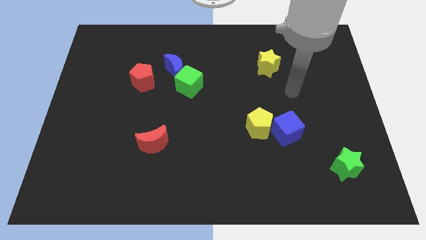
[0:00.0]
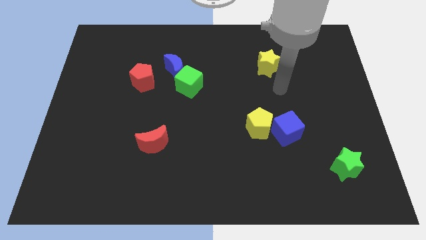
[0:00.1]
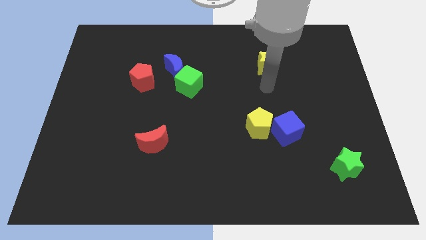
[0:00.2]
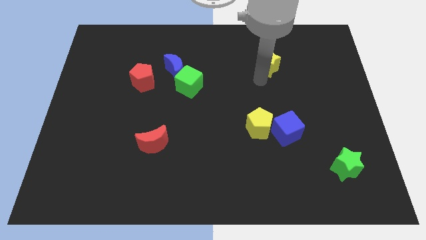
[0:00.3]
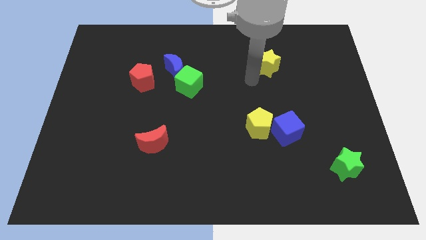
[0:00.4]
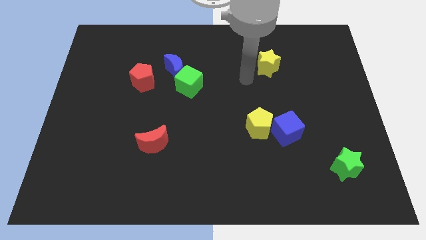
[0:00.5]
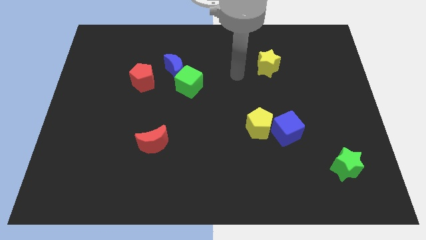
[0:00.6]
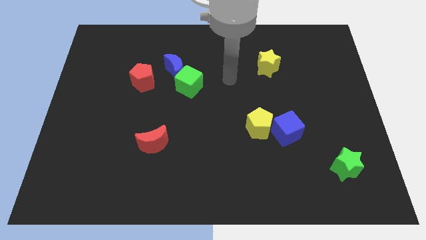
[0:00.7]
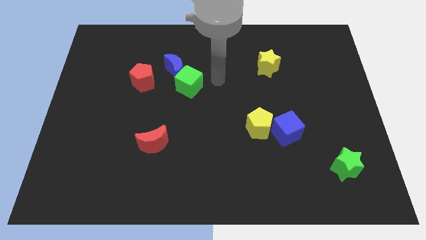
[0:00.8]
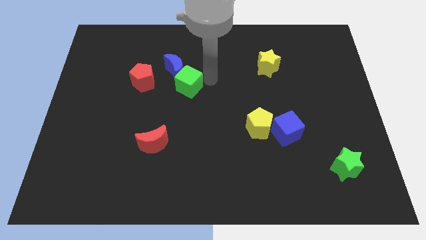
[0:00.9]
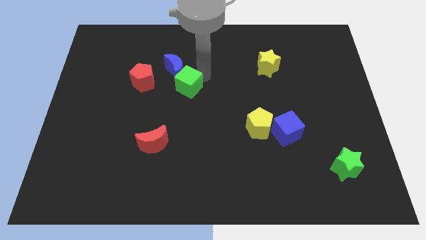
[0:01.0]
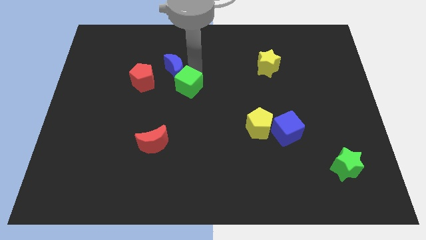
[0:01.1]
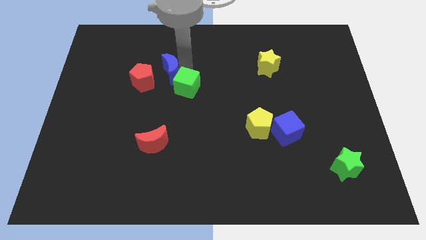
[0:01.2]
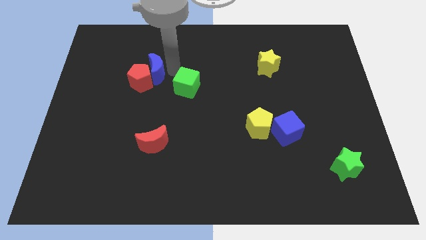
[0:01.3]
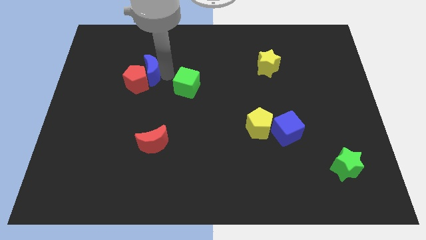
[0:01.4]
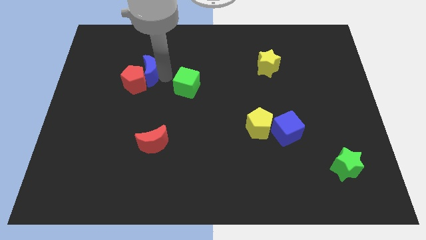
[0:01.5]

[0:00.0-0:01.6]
pull the green cube apart from the blue moon

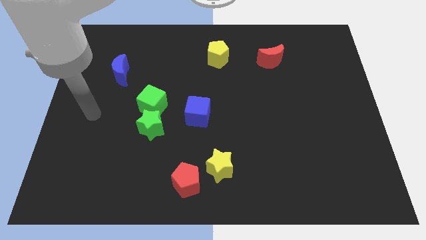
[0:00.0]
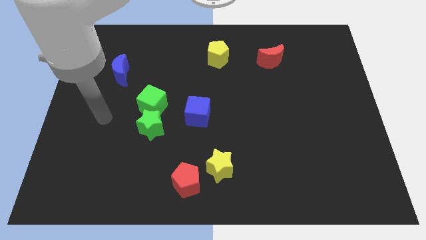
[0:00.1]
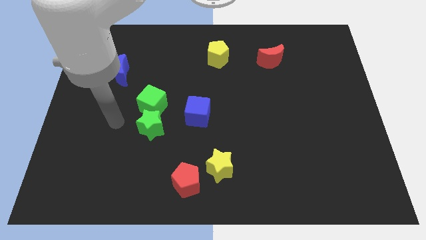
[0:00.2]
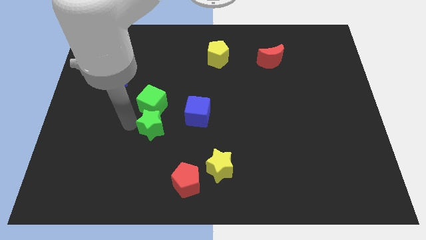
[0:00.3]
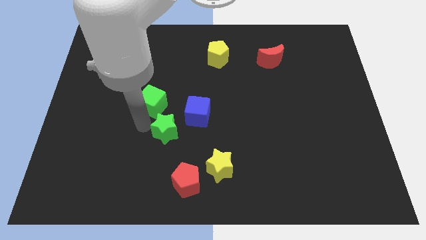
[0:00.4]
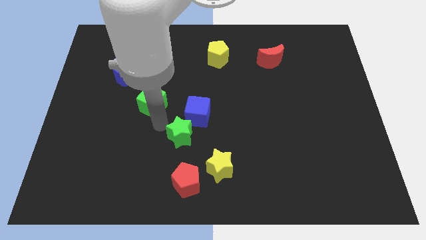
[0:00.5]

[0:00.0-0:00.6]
pull the green cube apart from the green star

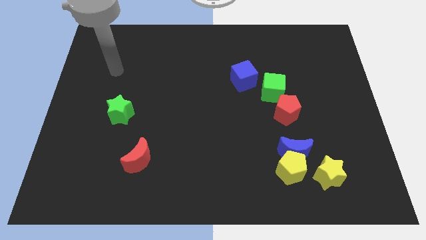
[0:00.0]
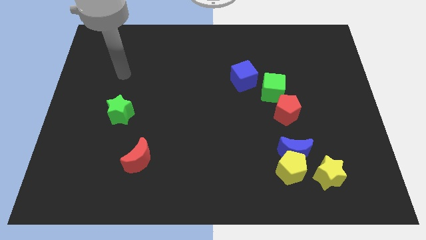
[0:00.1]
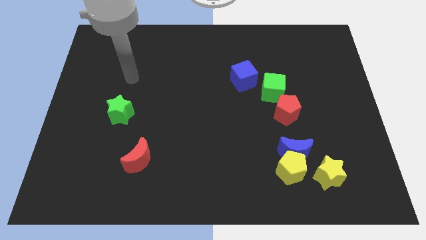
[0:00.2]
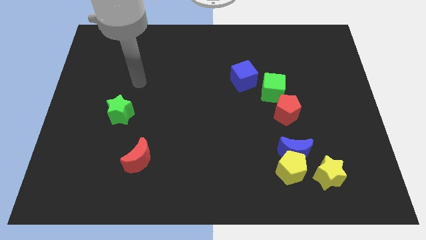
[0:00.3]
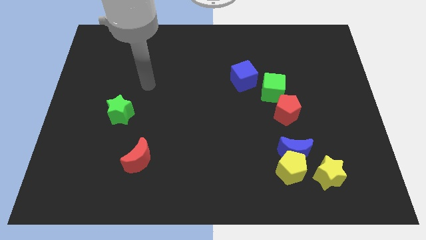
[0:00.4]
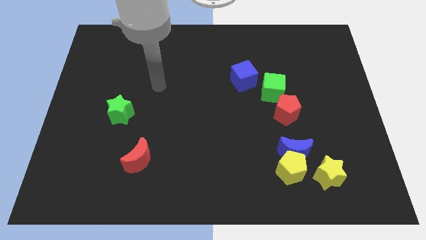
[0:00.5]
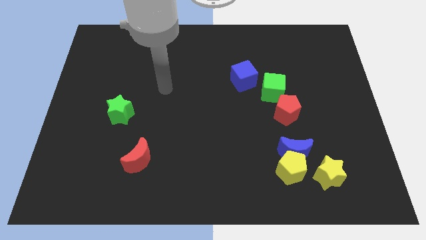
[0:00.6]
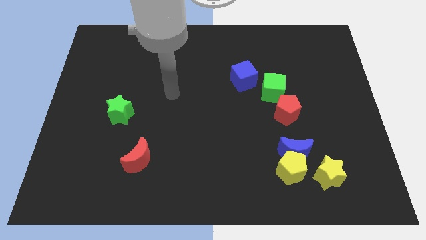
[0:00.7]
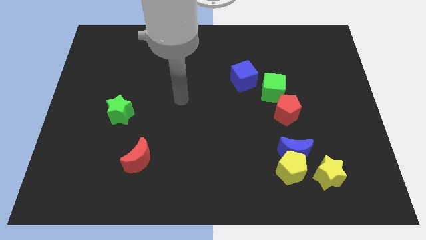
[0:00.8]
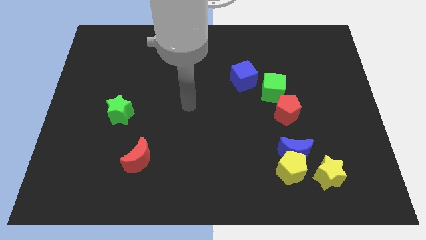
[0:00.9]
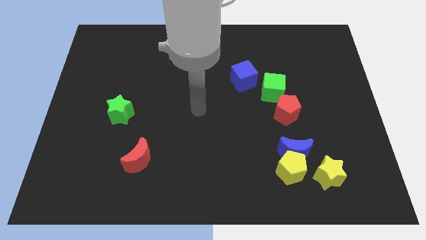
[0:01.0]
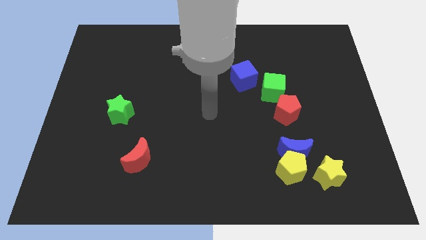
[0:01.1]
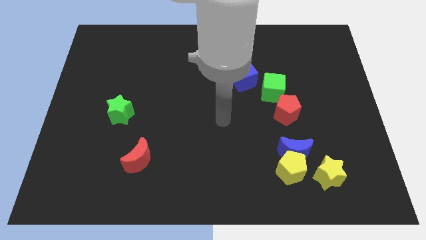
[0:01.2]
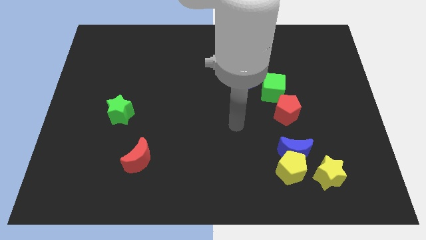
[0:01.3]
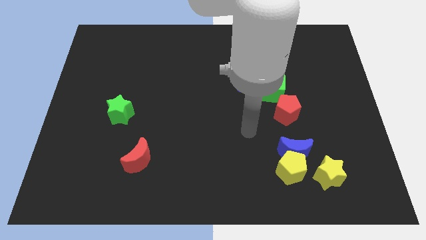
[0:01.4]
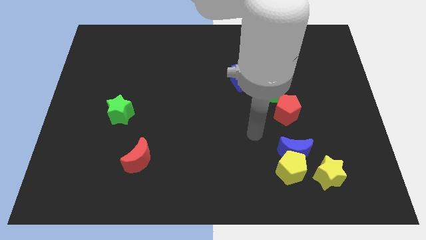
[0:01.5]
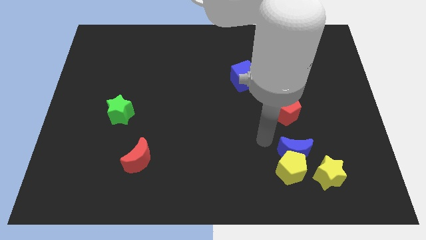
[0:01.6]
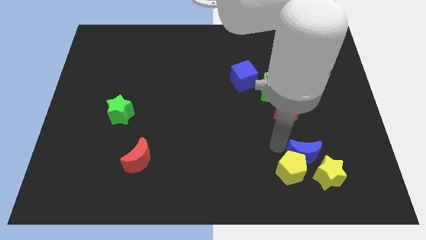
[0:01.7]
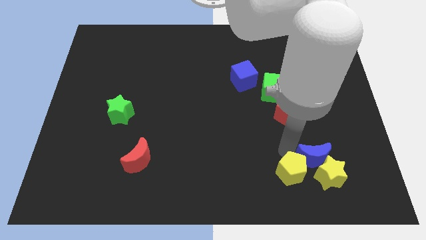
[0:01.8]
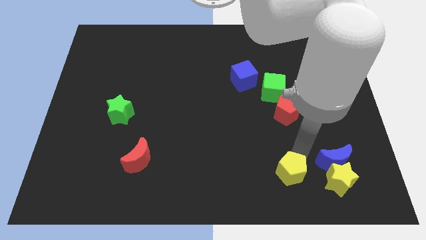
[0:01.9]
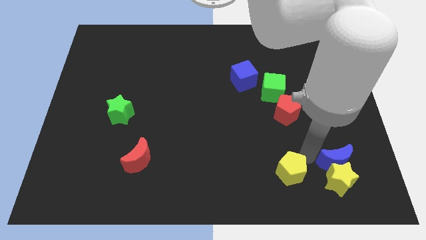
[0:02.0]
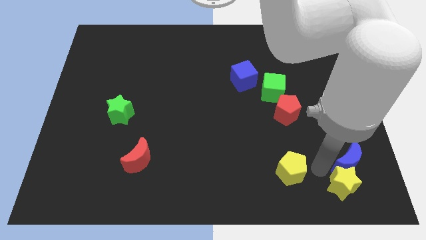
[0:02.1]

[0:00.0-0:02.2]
pull the yellow pentagon apart from the blue moon and yellow star

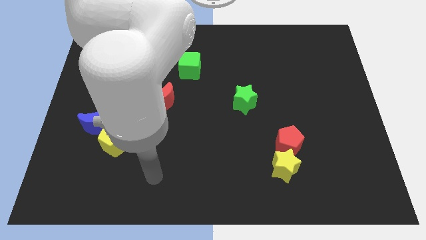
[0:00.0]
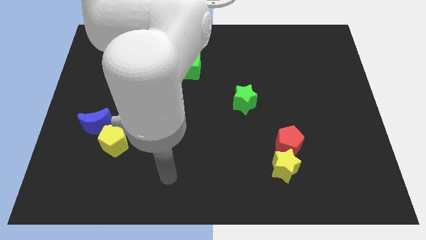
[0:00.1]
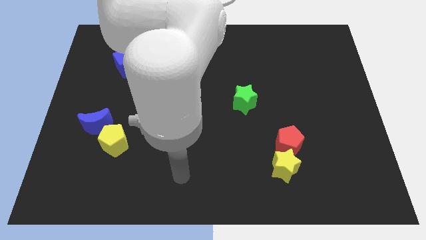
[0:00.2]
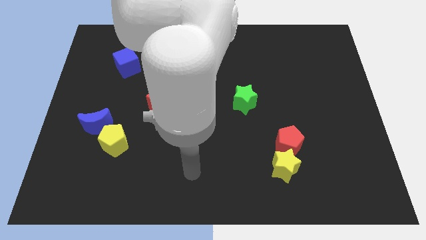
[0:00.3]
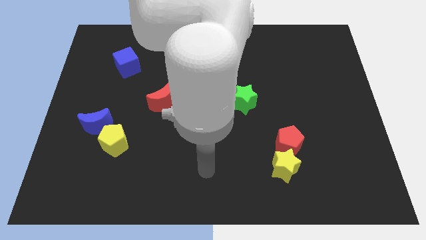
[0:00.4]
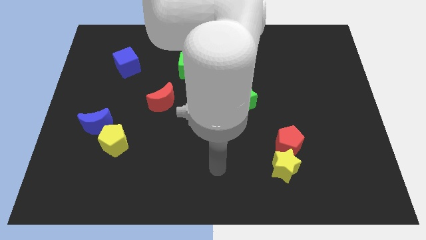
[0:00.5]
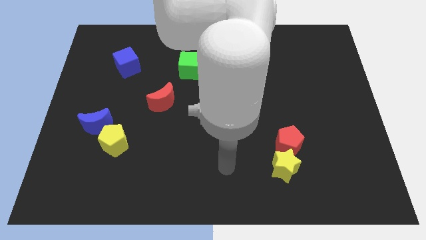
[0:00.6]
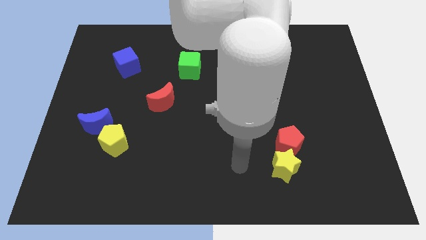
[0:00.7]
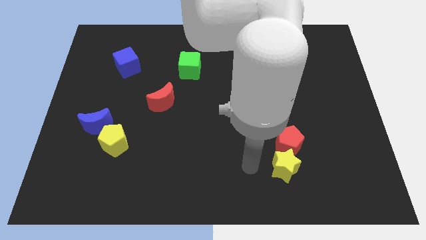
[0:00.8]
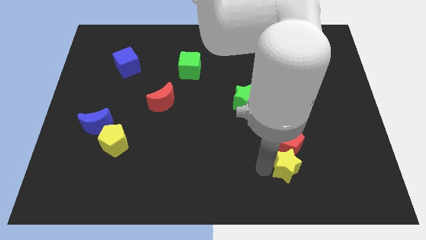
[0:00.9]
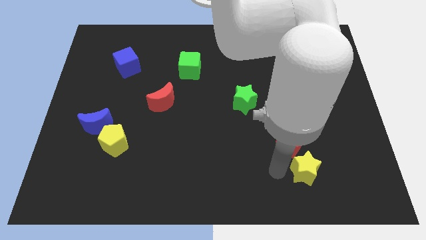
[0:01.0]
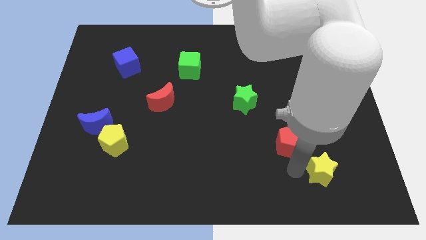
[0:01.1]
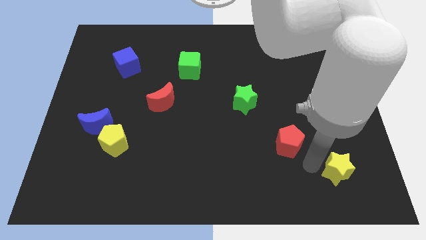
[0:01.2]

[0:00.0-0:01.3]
separate the red pentagon from the yellow star

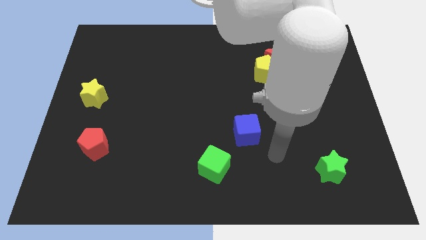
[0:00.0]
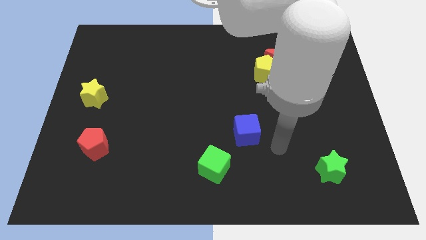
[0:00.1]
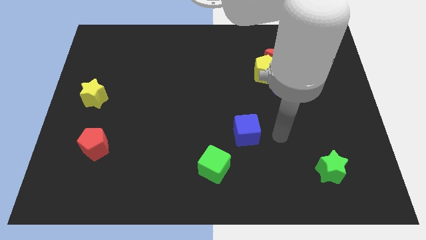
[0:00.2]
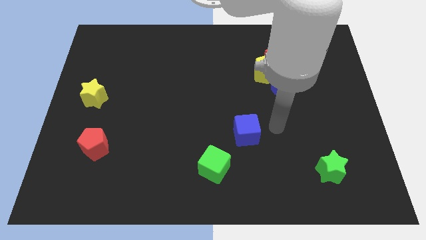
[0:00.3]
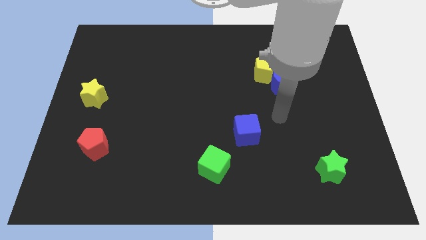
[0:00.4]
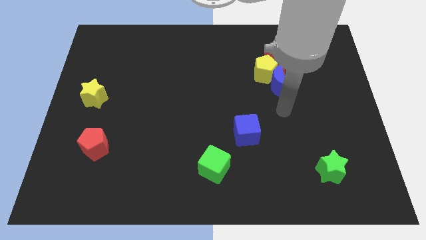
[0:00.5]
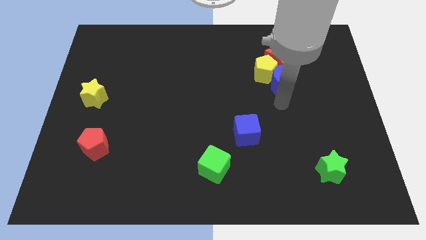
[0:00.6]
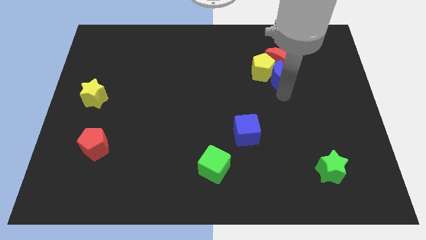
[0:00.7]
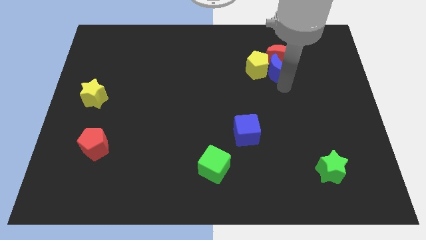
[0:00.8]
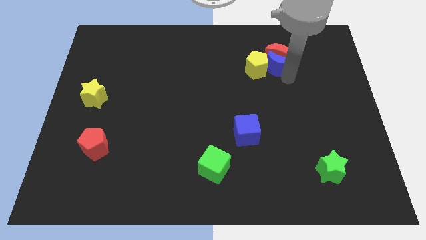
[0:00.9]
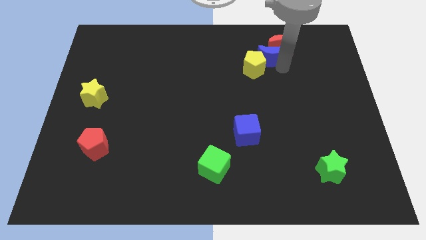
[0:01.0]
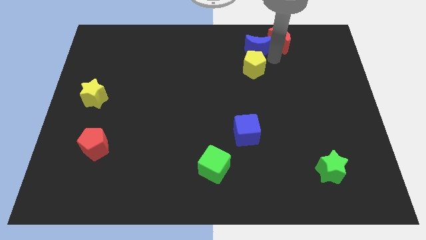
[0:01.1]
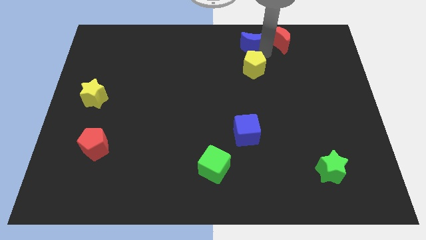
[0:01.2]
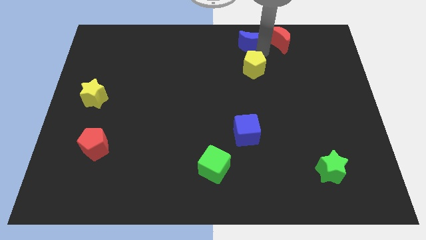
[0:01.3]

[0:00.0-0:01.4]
pull the yellow pentagon apart from the red moon and blue moon

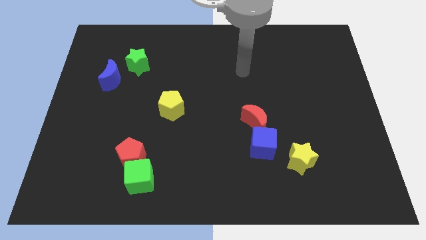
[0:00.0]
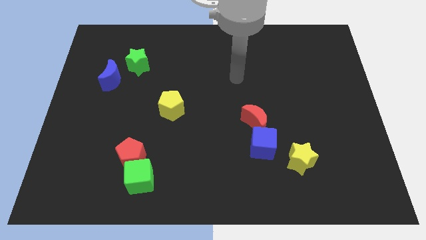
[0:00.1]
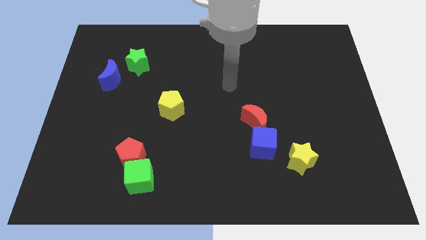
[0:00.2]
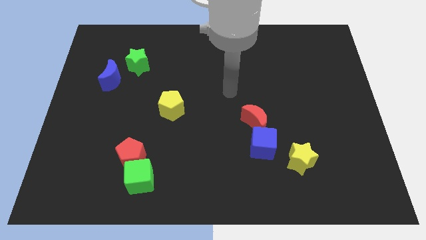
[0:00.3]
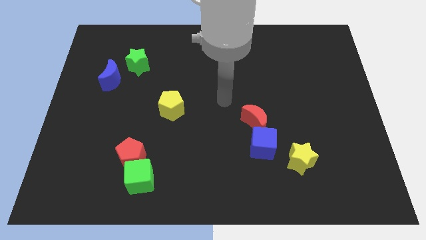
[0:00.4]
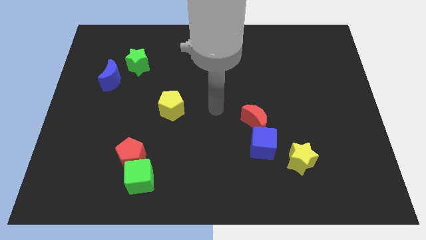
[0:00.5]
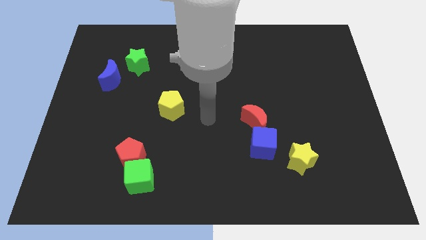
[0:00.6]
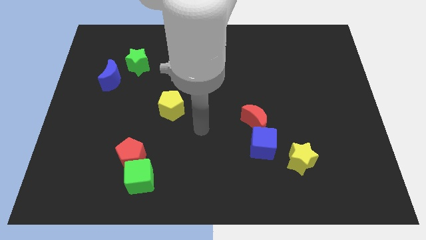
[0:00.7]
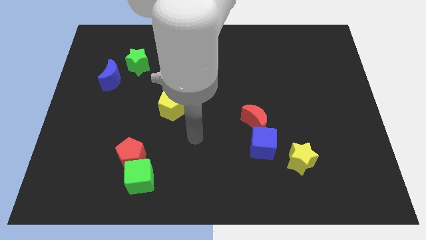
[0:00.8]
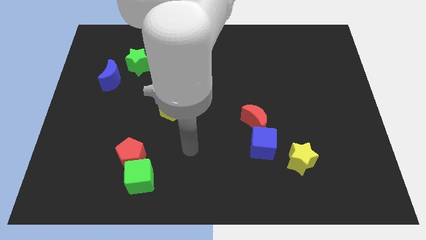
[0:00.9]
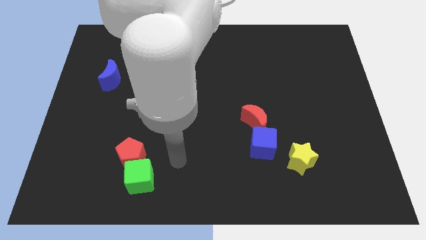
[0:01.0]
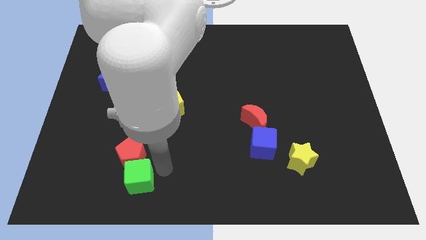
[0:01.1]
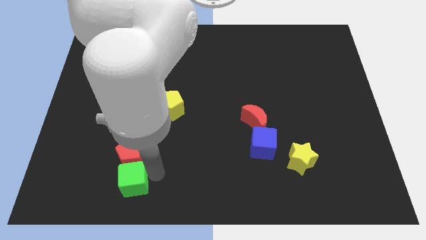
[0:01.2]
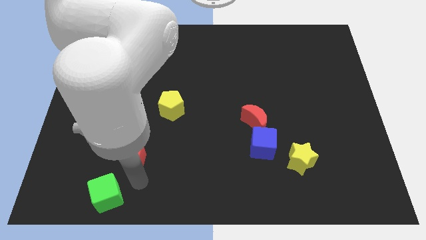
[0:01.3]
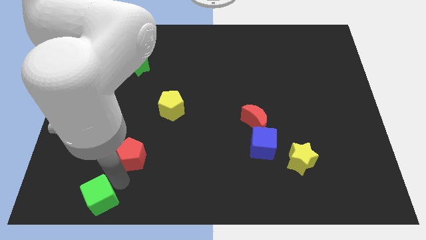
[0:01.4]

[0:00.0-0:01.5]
move the red pentagon away from the green cube

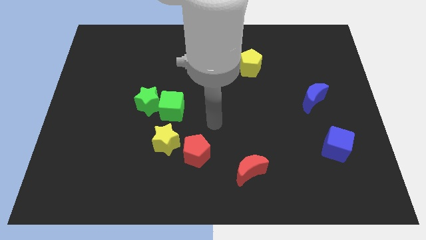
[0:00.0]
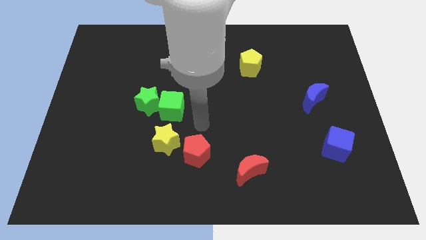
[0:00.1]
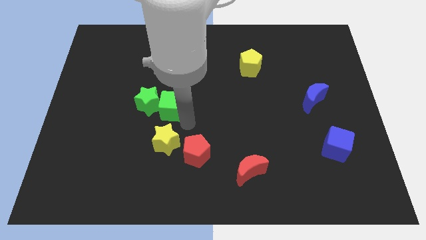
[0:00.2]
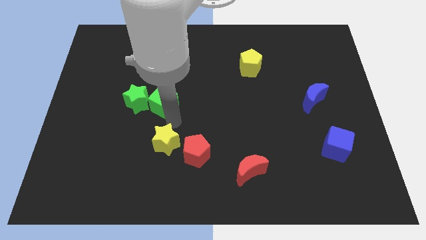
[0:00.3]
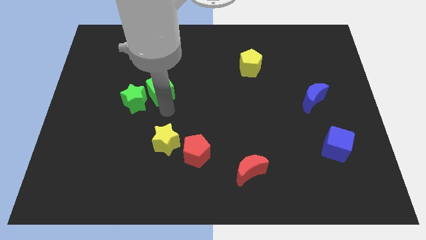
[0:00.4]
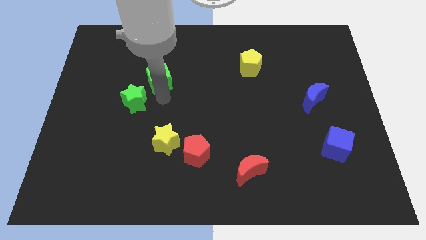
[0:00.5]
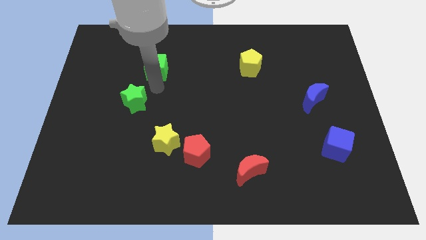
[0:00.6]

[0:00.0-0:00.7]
move the green star away from the green cube
